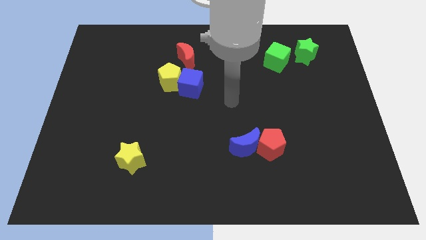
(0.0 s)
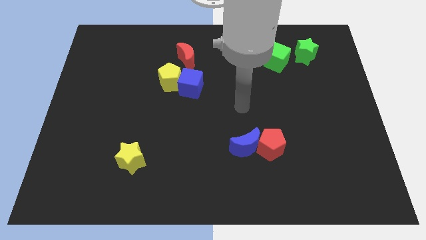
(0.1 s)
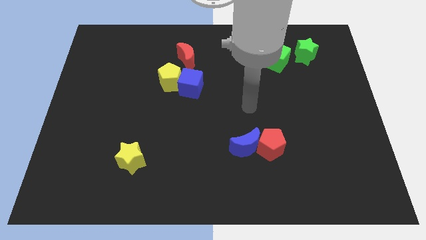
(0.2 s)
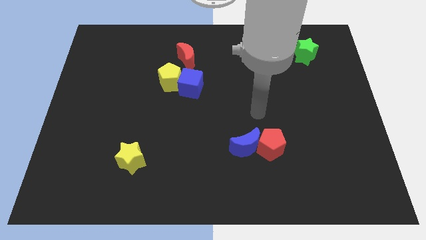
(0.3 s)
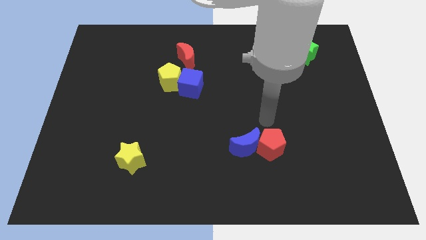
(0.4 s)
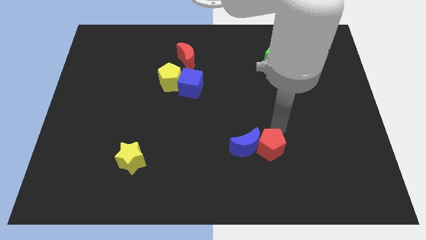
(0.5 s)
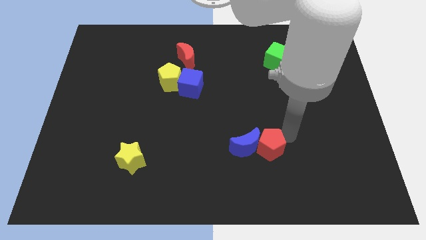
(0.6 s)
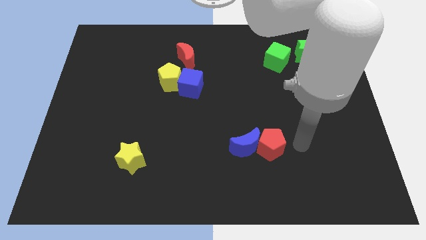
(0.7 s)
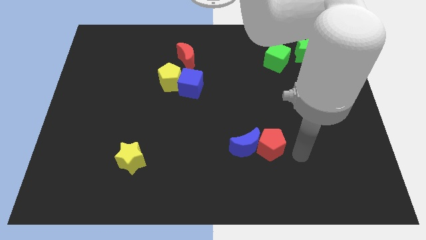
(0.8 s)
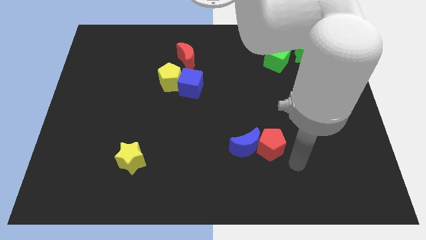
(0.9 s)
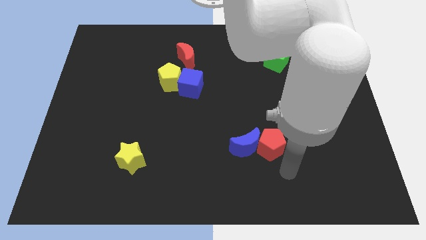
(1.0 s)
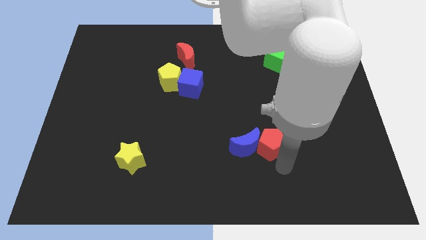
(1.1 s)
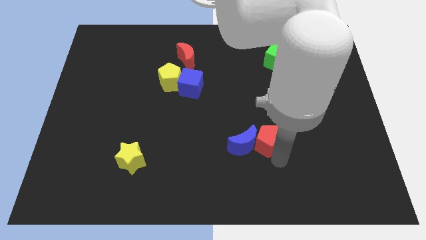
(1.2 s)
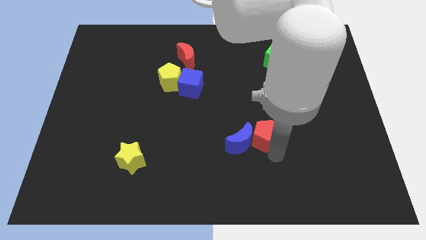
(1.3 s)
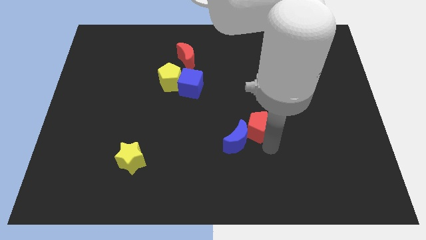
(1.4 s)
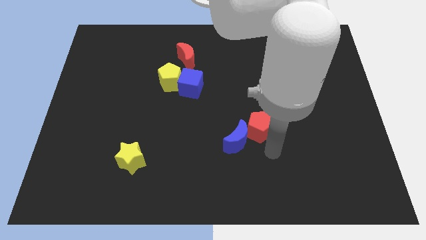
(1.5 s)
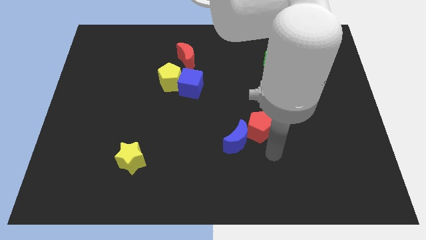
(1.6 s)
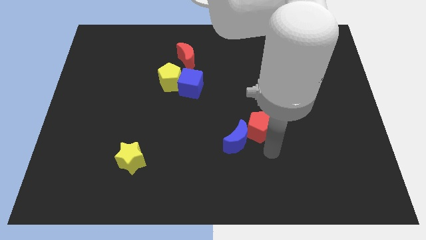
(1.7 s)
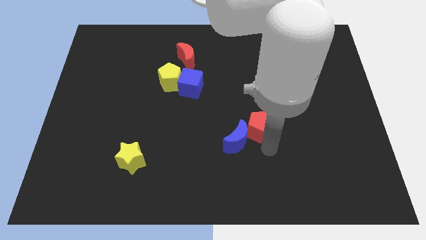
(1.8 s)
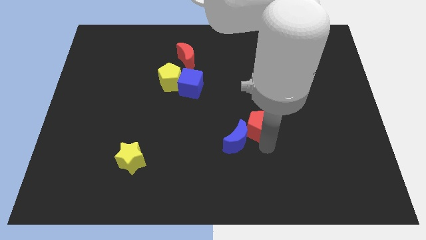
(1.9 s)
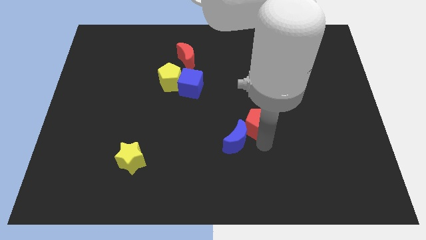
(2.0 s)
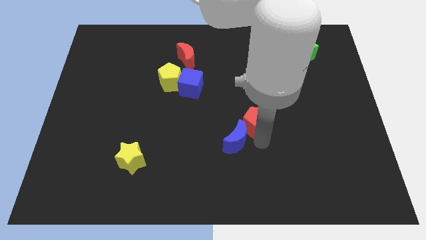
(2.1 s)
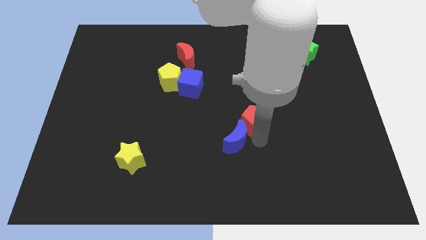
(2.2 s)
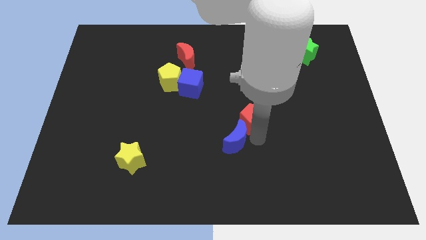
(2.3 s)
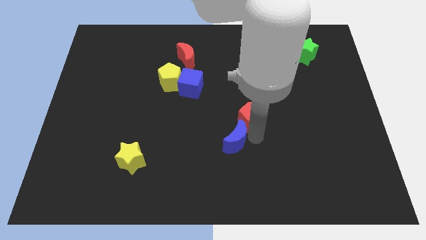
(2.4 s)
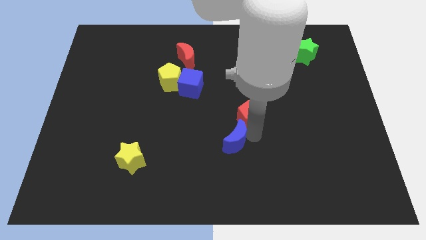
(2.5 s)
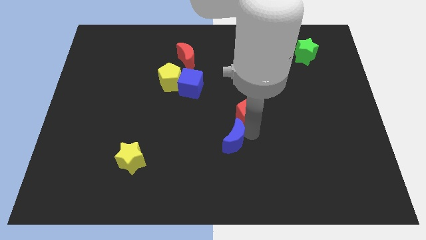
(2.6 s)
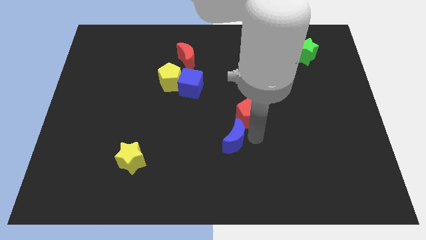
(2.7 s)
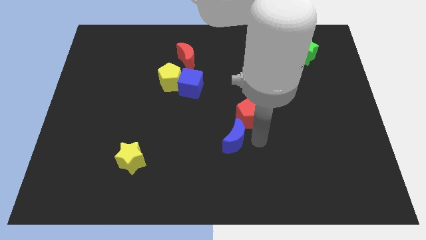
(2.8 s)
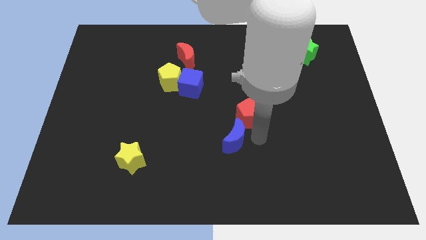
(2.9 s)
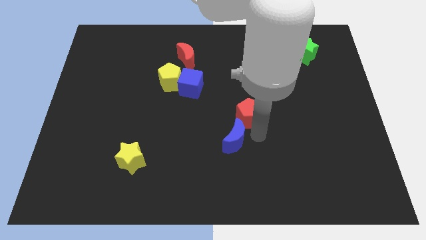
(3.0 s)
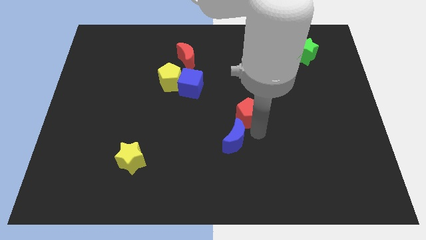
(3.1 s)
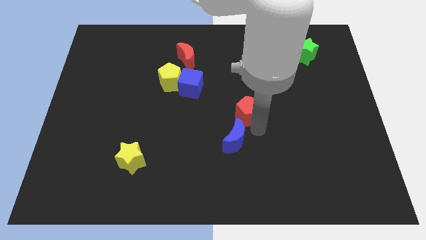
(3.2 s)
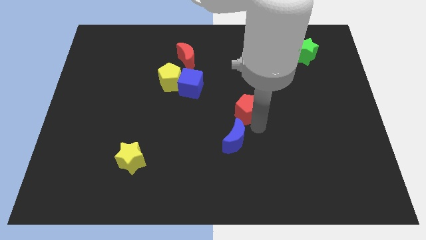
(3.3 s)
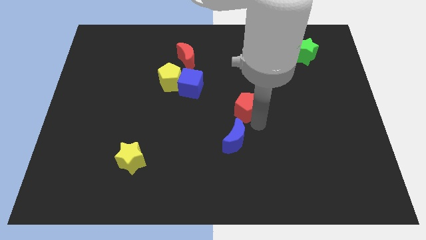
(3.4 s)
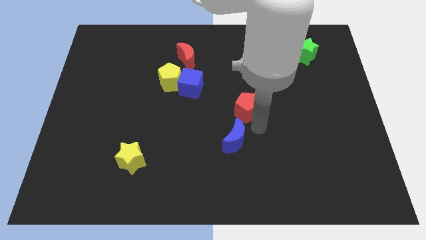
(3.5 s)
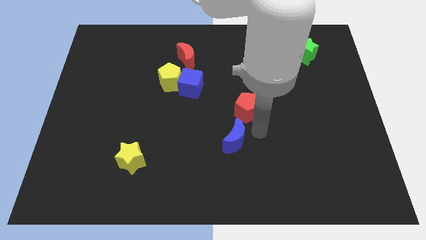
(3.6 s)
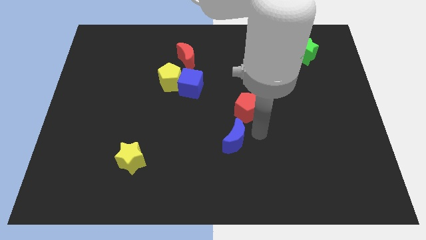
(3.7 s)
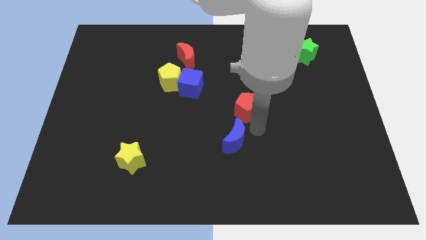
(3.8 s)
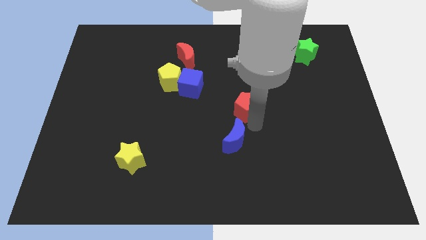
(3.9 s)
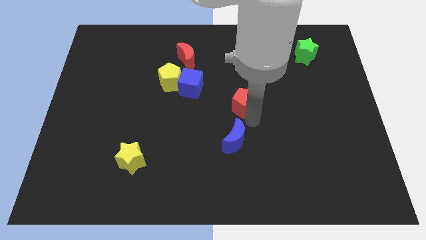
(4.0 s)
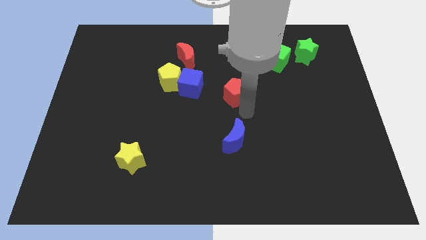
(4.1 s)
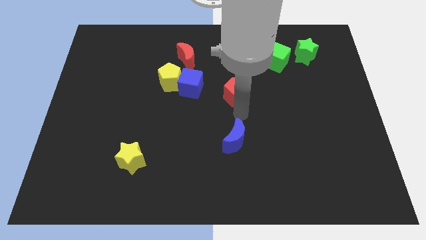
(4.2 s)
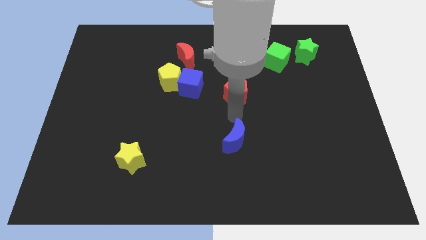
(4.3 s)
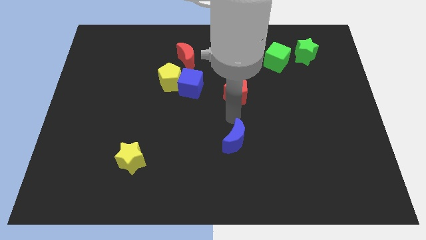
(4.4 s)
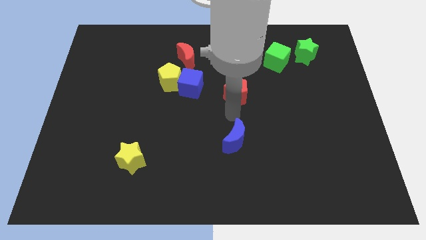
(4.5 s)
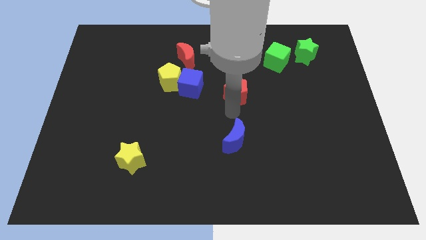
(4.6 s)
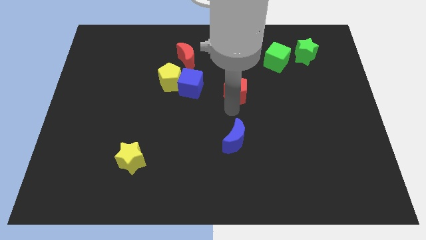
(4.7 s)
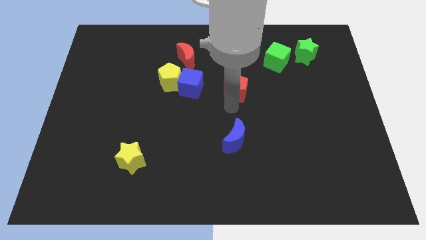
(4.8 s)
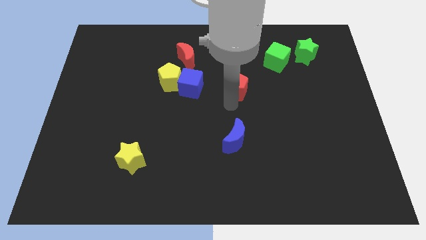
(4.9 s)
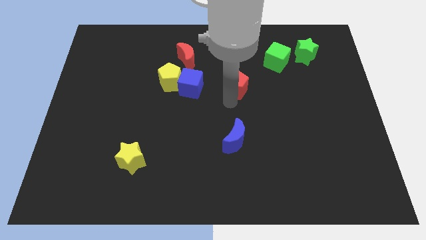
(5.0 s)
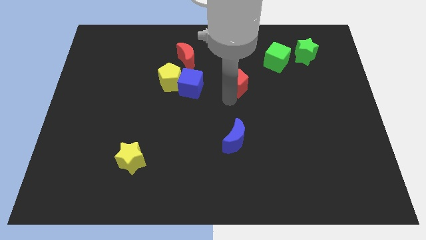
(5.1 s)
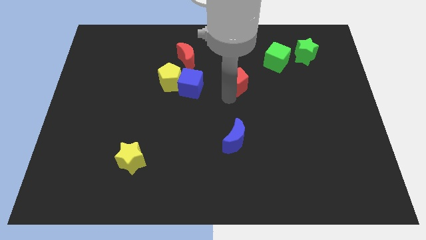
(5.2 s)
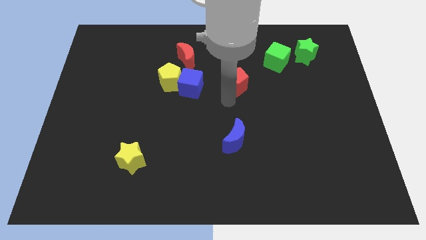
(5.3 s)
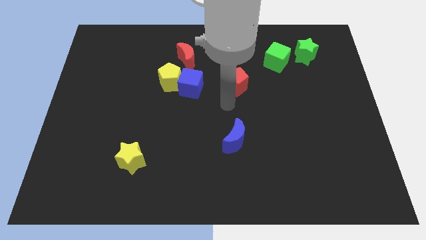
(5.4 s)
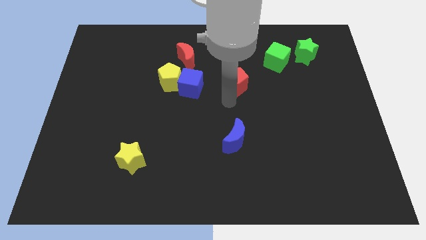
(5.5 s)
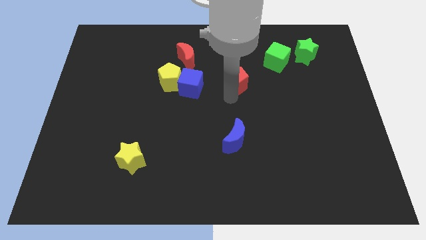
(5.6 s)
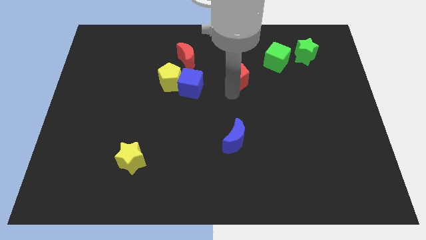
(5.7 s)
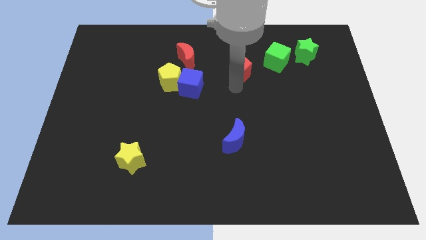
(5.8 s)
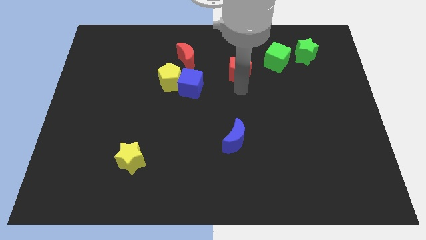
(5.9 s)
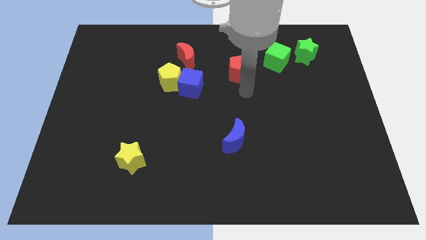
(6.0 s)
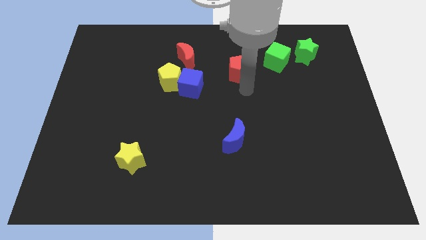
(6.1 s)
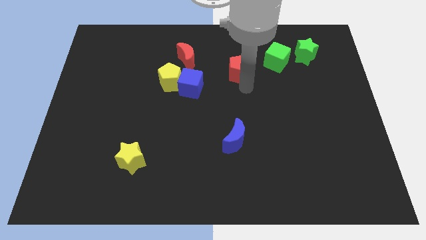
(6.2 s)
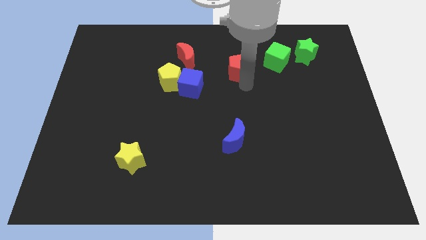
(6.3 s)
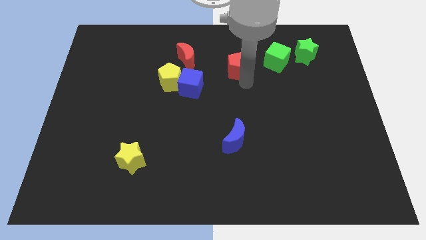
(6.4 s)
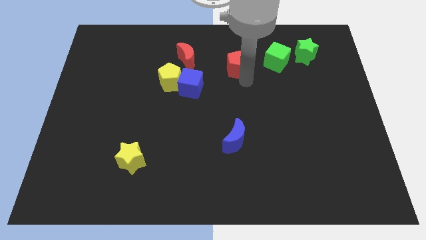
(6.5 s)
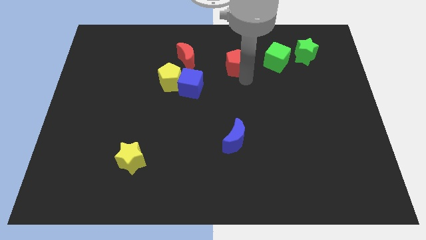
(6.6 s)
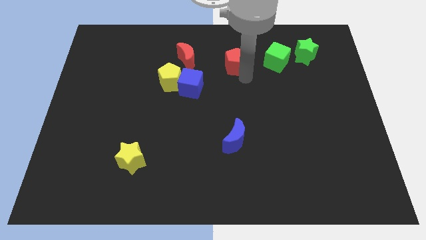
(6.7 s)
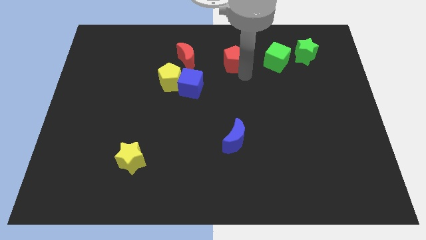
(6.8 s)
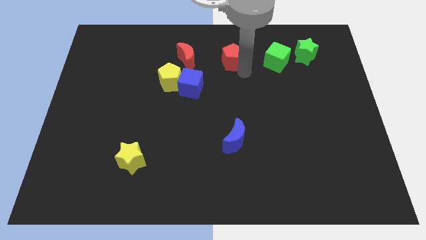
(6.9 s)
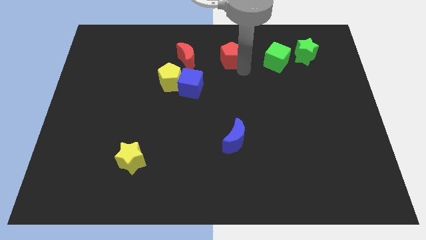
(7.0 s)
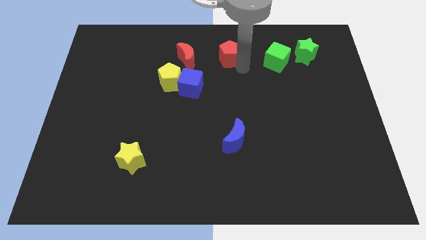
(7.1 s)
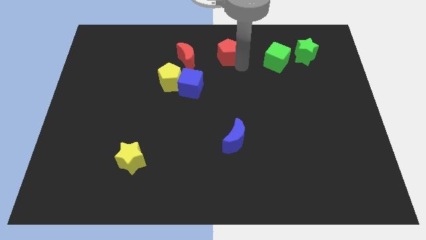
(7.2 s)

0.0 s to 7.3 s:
move the red pentagon to the top side
